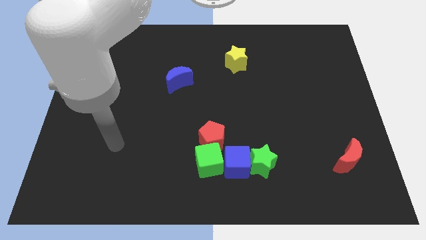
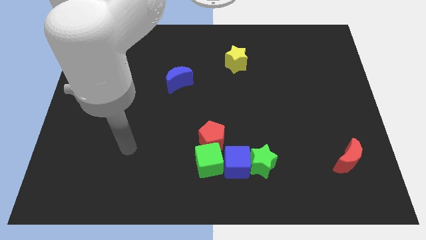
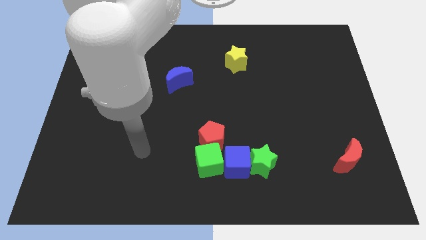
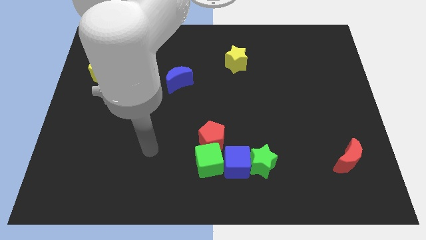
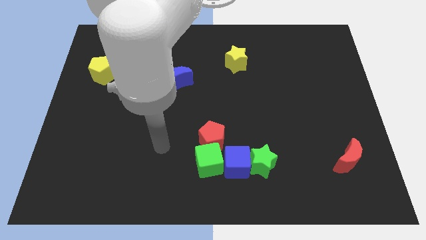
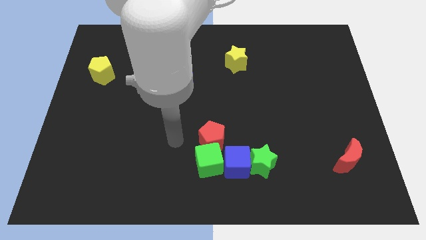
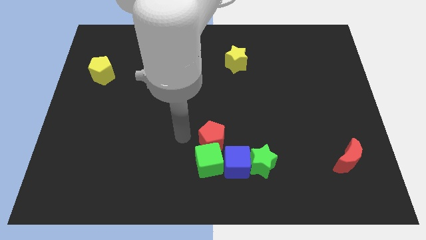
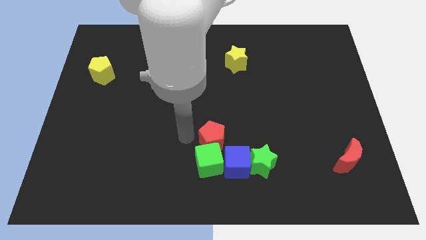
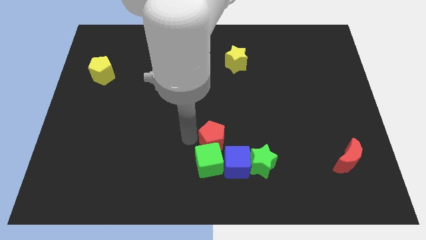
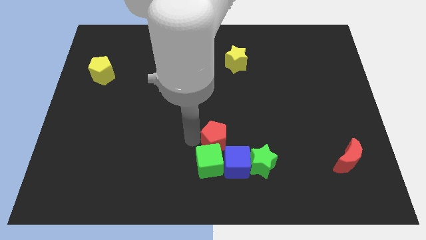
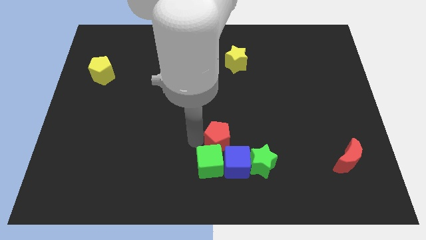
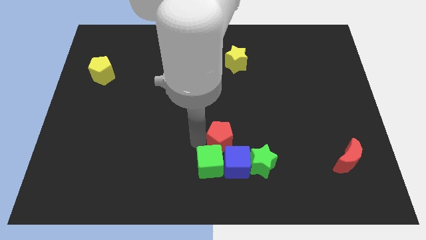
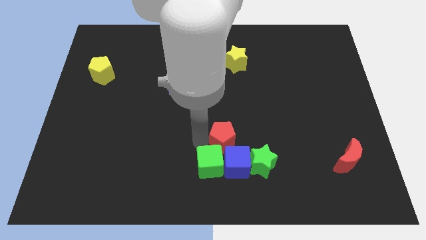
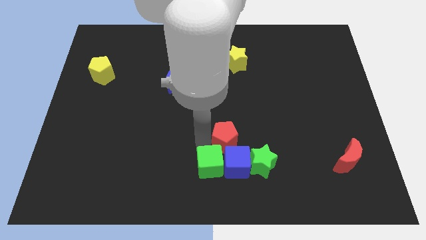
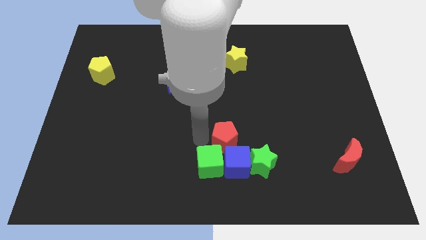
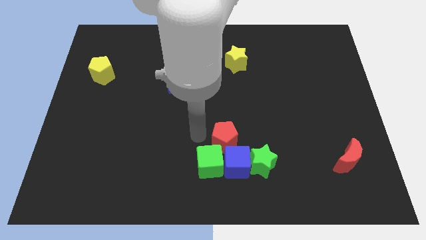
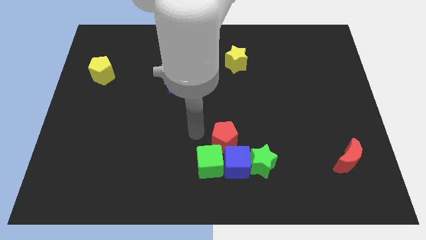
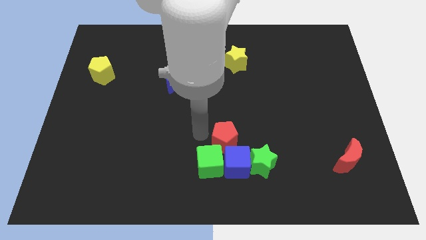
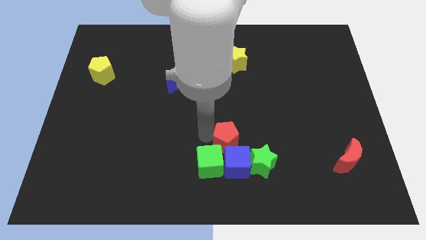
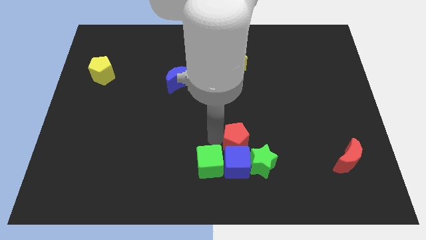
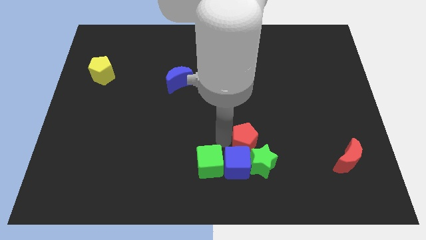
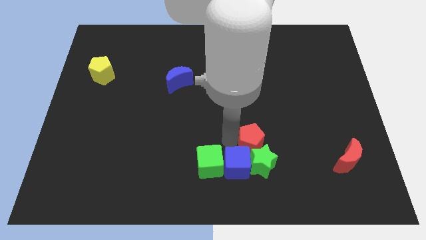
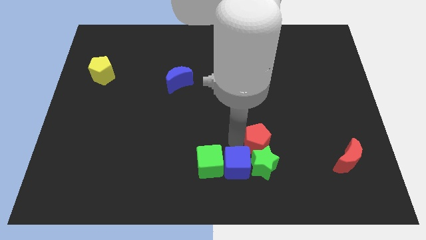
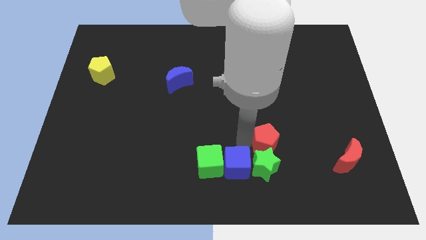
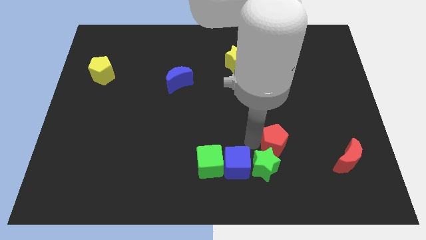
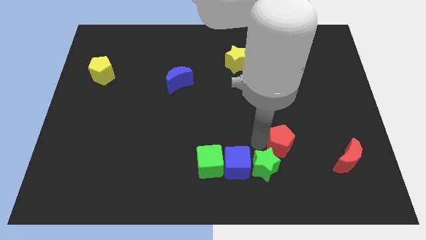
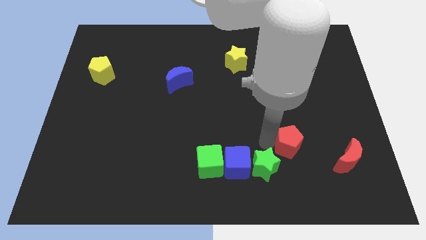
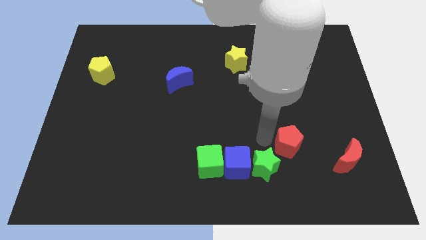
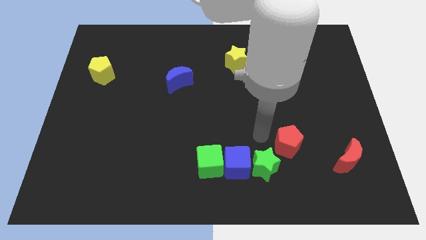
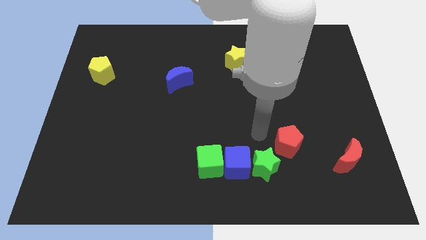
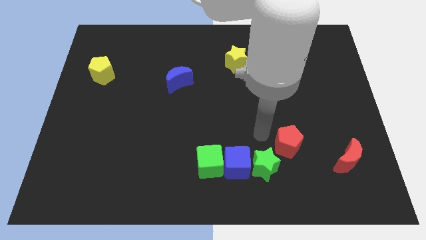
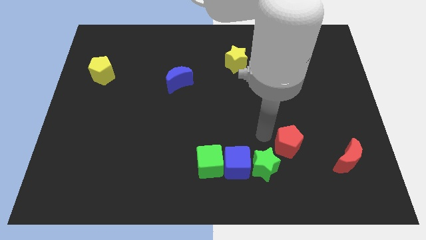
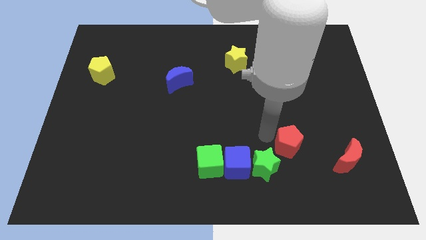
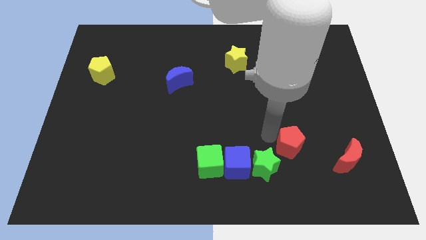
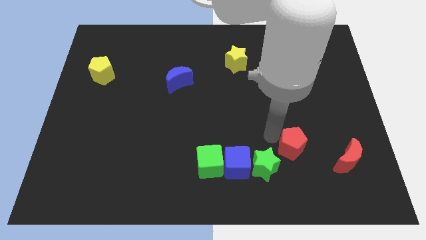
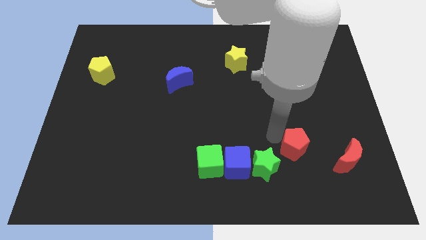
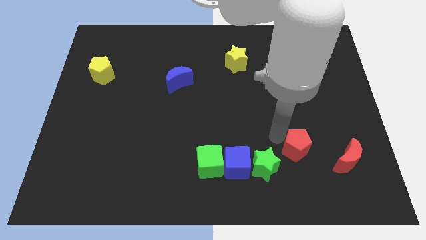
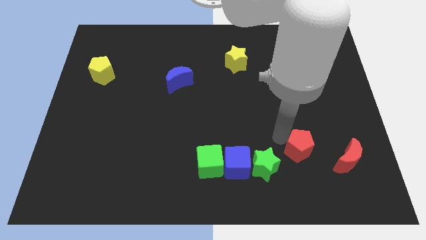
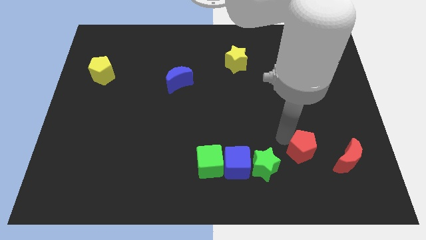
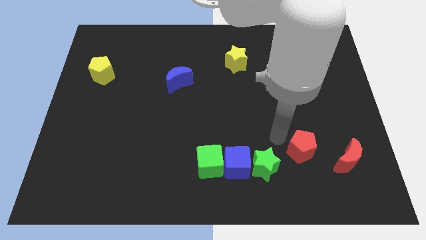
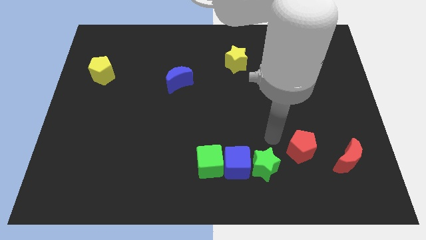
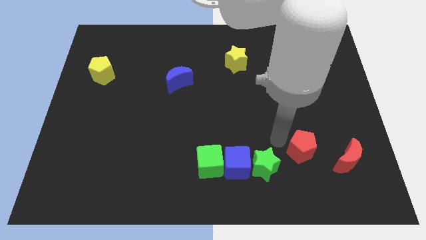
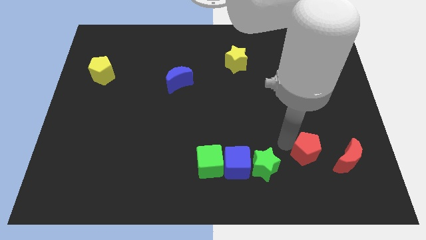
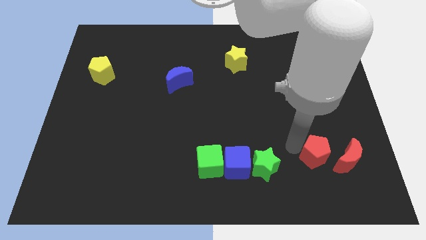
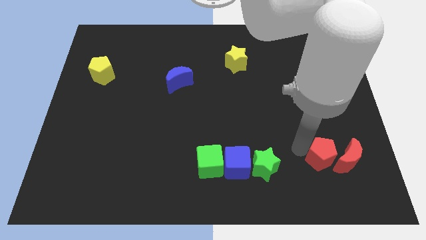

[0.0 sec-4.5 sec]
push the red pentagon close to the red moon

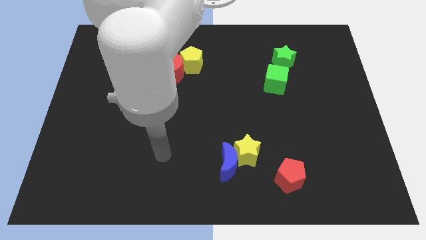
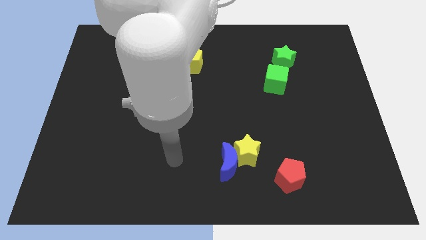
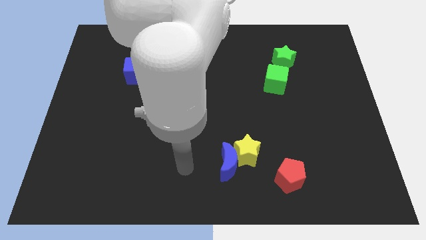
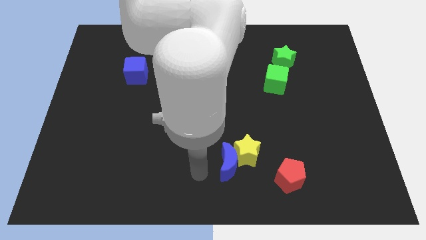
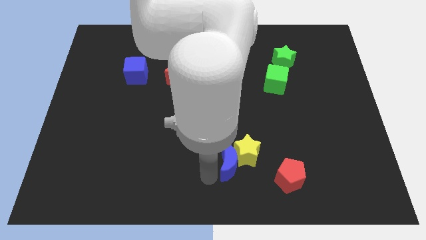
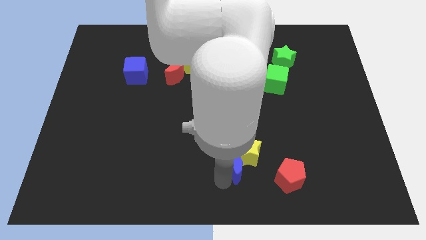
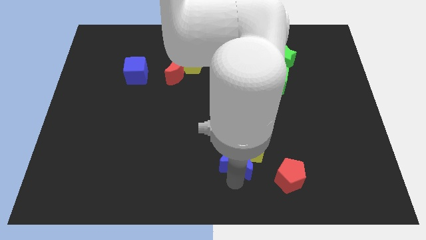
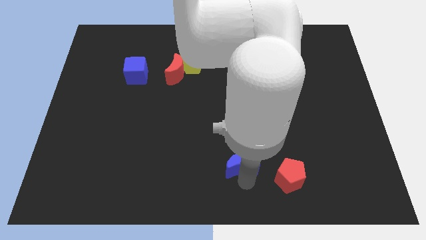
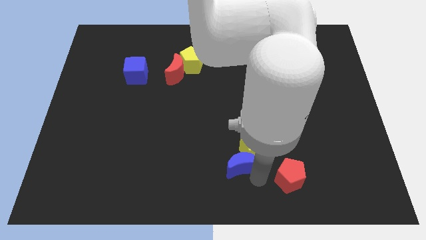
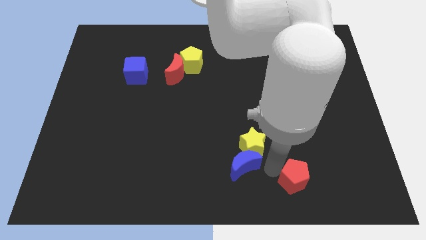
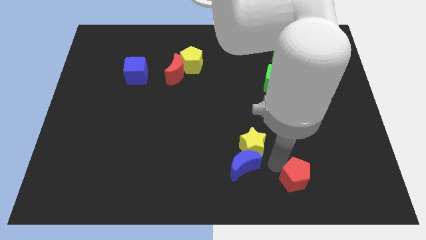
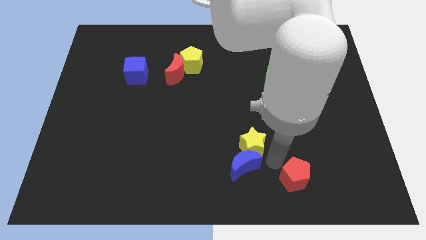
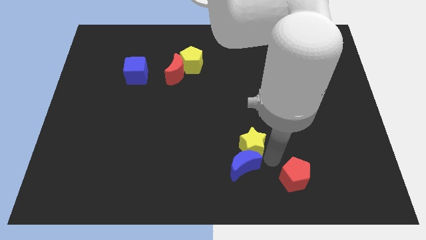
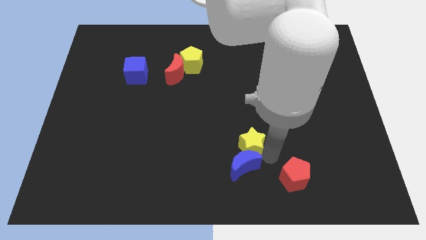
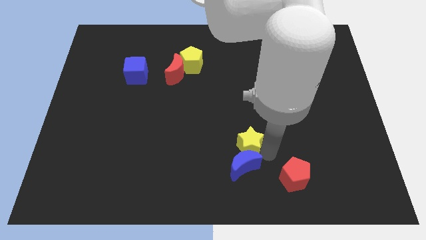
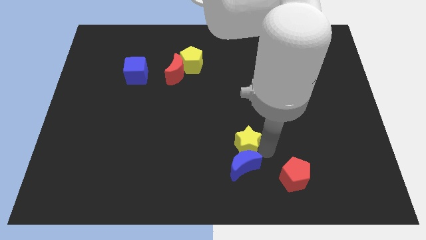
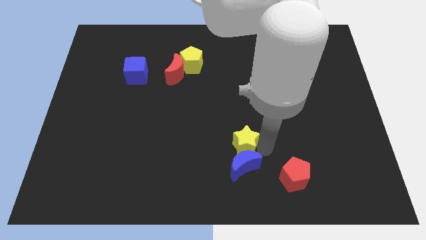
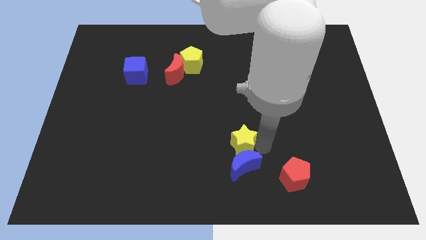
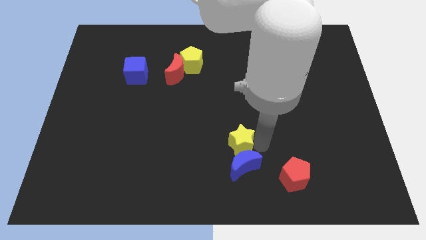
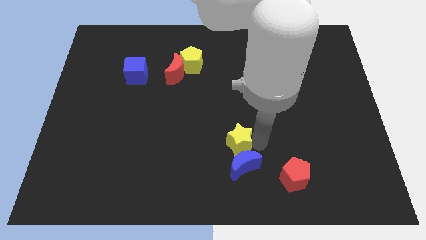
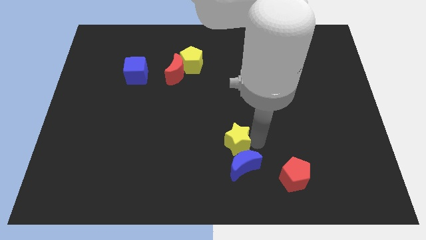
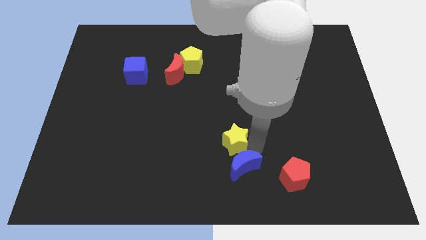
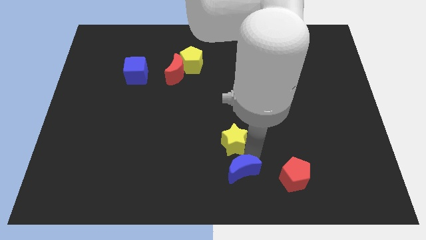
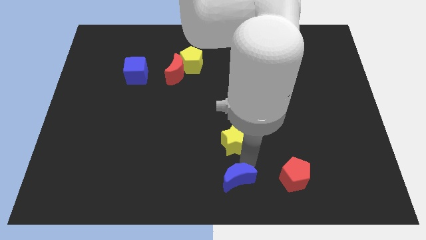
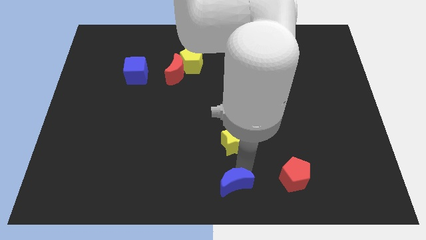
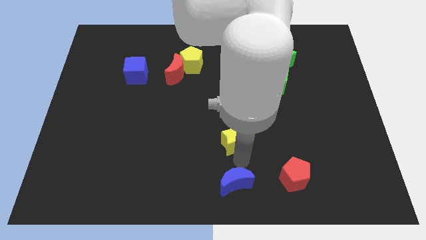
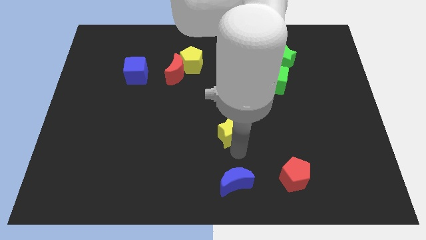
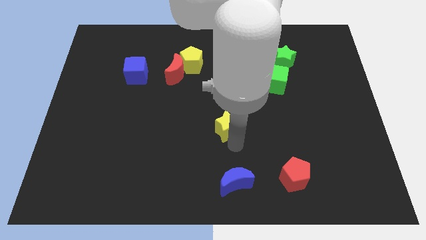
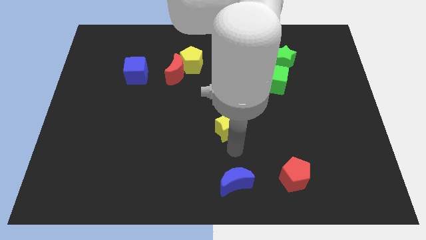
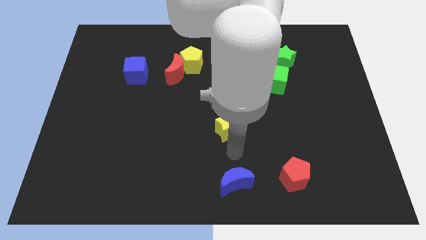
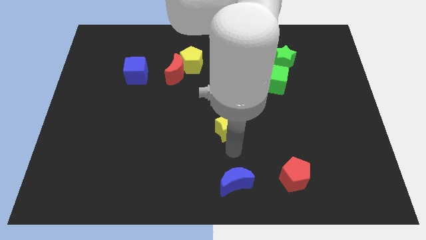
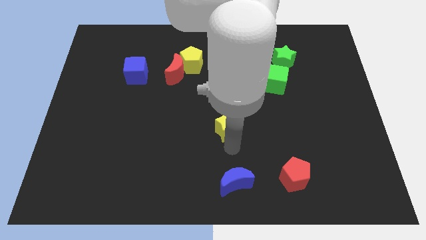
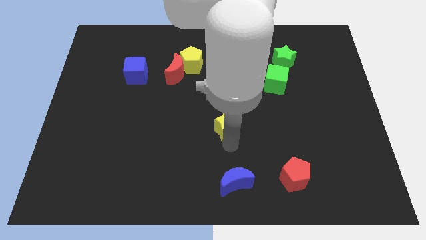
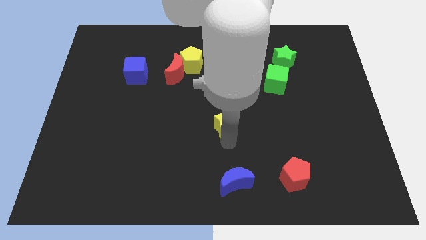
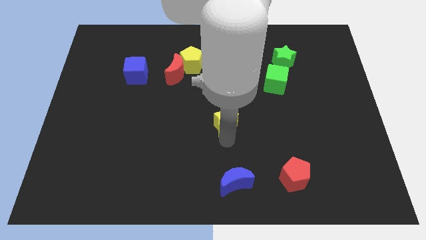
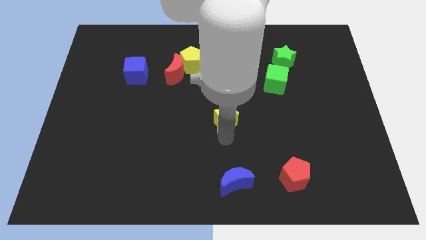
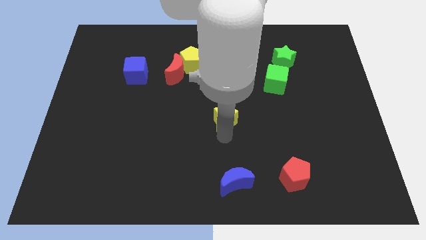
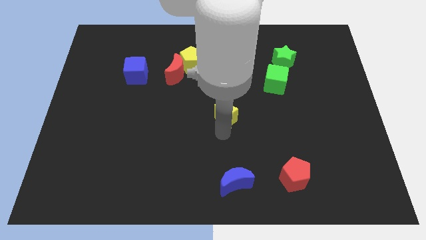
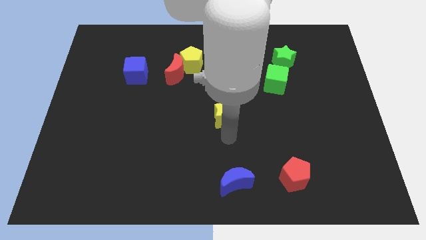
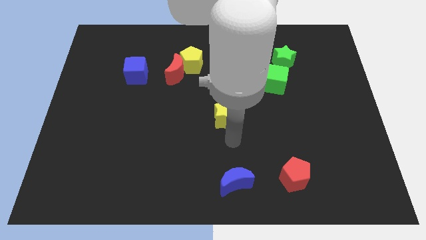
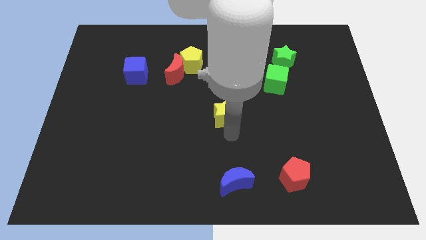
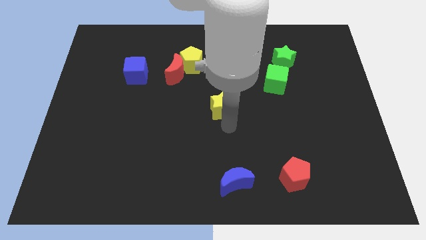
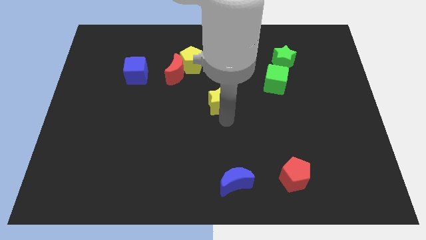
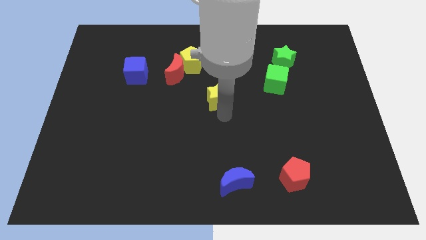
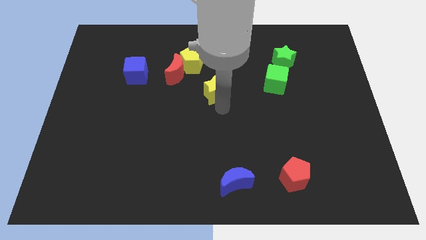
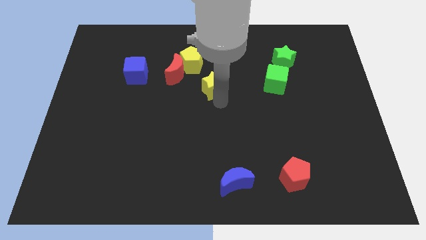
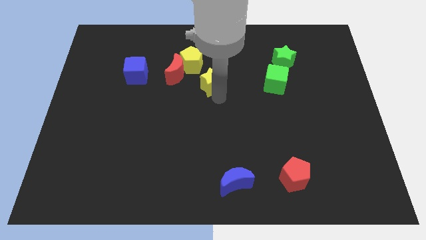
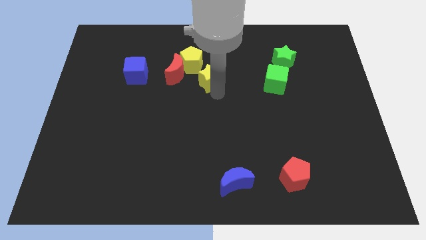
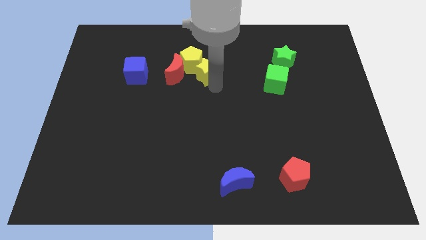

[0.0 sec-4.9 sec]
slide the yellow star to the yellow pentagon
